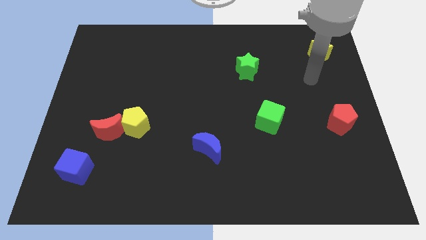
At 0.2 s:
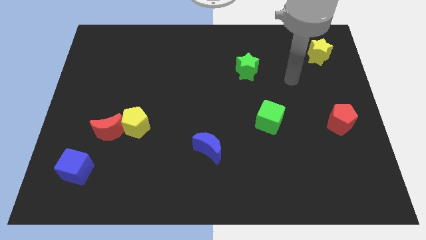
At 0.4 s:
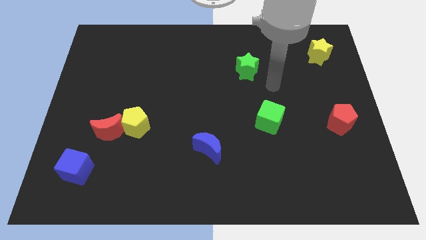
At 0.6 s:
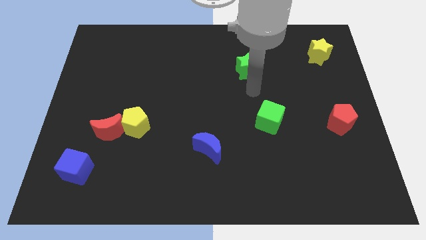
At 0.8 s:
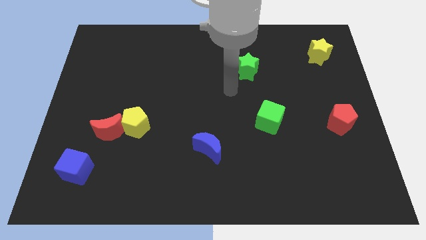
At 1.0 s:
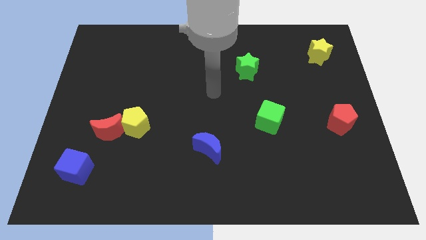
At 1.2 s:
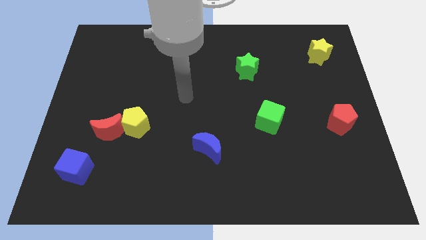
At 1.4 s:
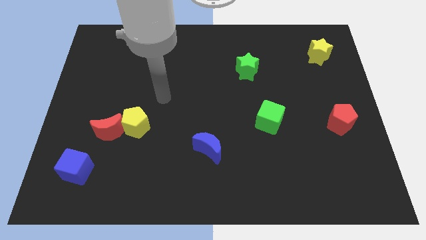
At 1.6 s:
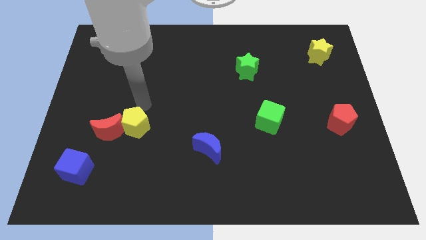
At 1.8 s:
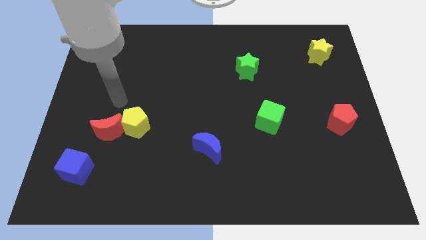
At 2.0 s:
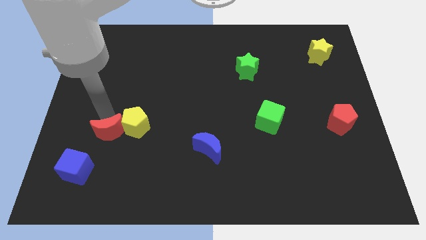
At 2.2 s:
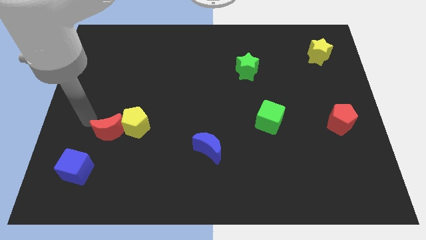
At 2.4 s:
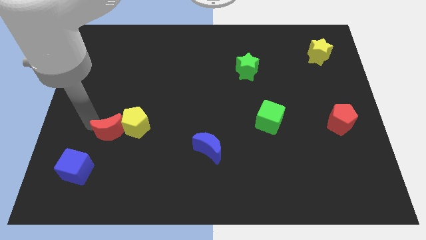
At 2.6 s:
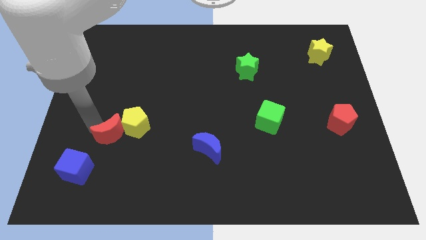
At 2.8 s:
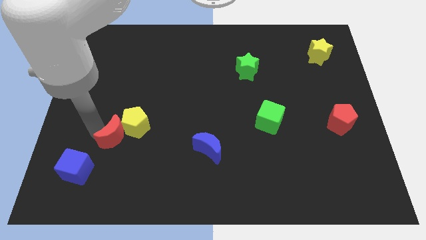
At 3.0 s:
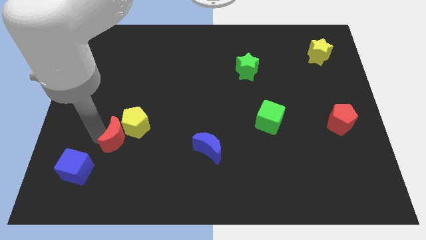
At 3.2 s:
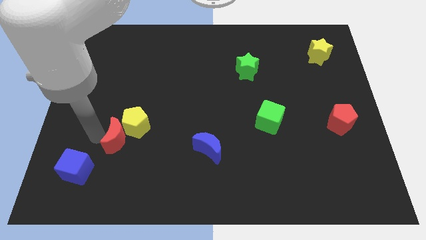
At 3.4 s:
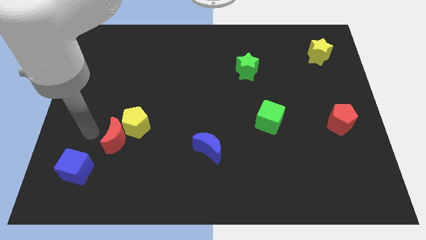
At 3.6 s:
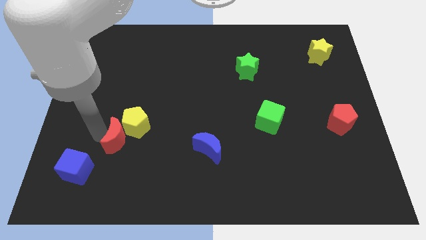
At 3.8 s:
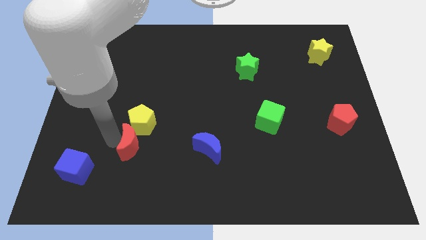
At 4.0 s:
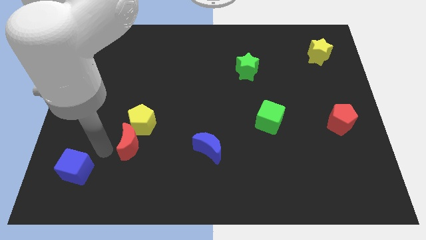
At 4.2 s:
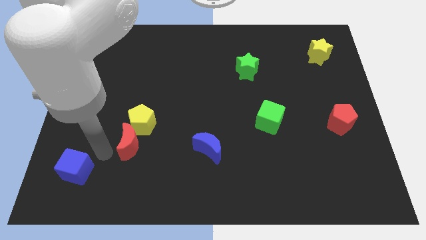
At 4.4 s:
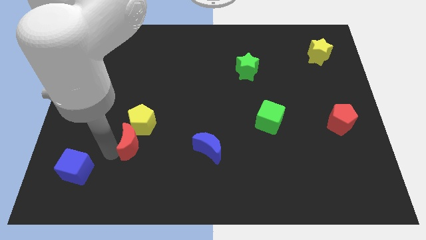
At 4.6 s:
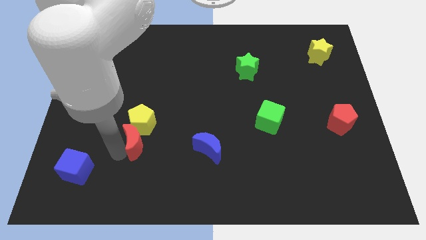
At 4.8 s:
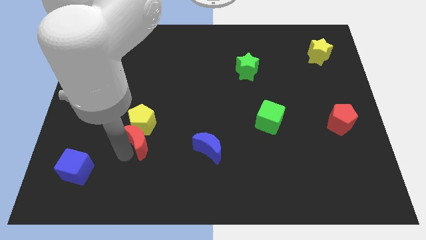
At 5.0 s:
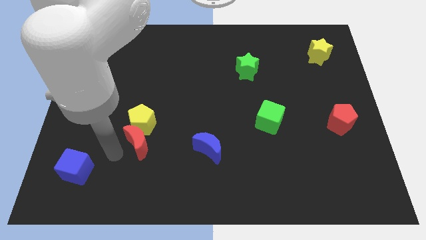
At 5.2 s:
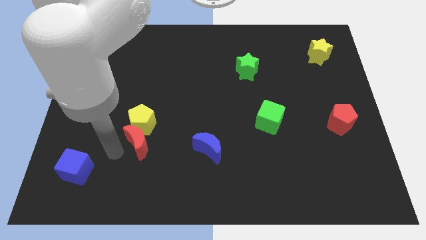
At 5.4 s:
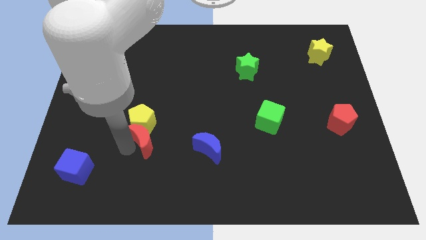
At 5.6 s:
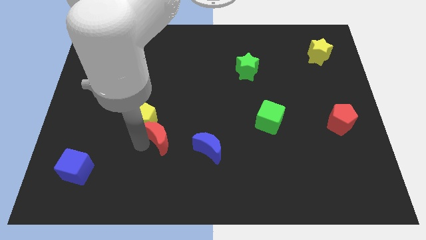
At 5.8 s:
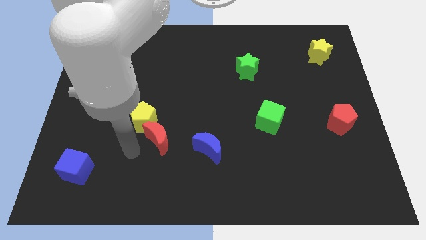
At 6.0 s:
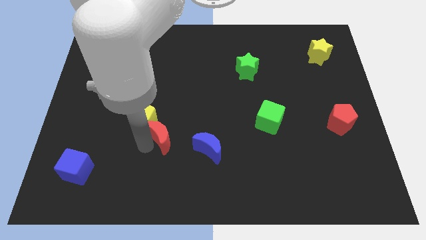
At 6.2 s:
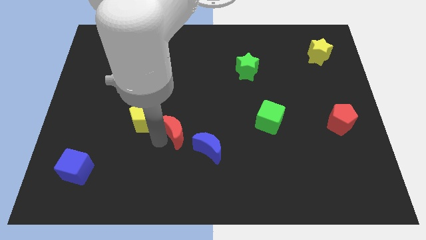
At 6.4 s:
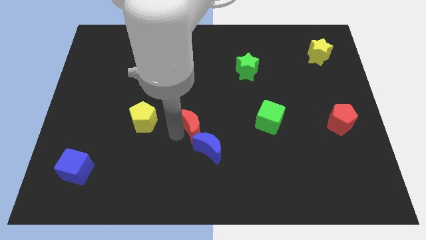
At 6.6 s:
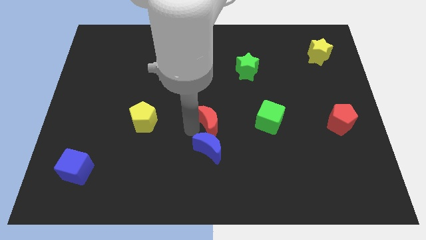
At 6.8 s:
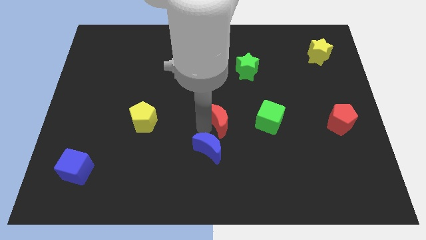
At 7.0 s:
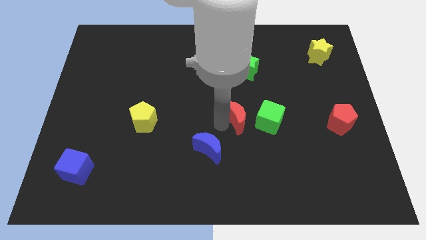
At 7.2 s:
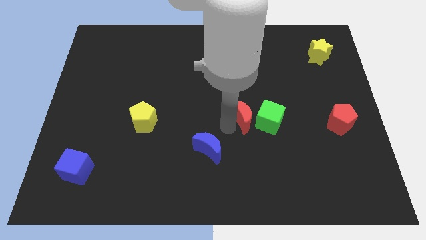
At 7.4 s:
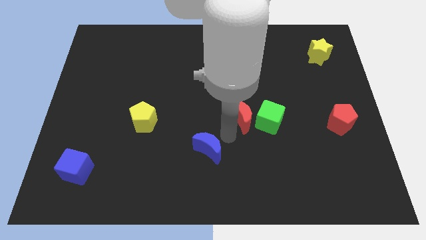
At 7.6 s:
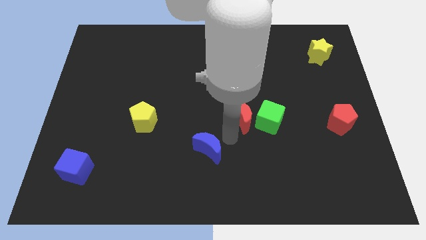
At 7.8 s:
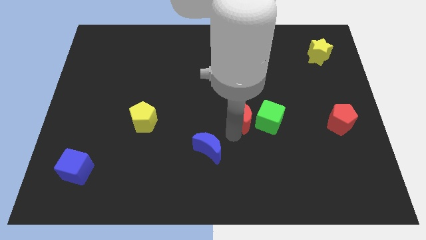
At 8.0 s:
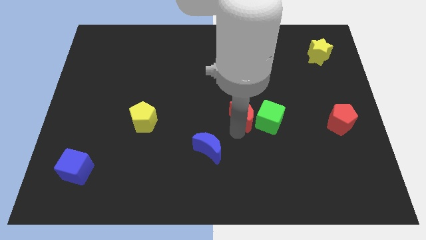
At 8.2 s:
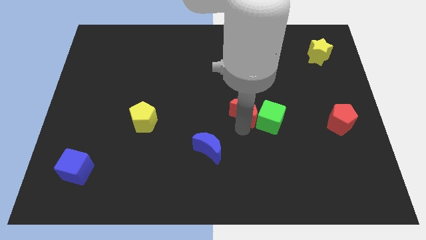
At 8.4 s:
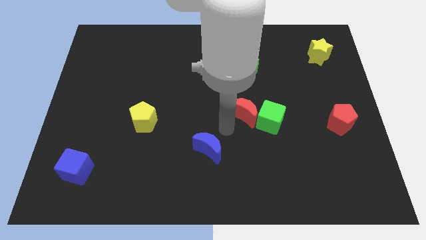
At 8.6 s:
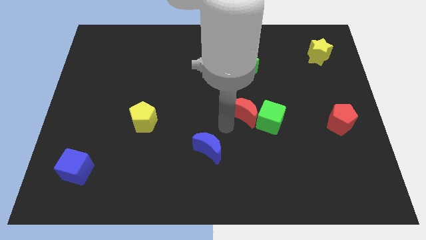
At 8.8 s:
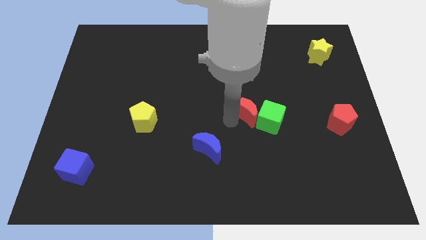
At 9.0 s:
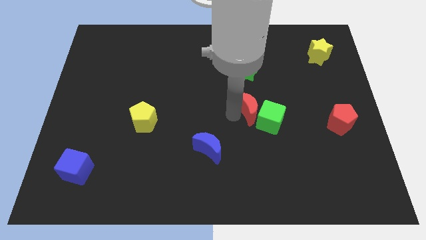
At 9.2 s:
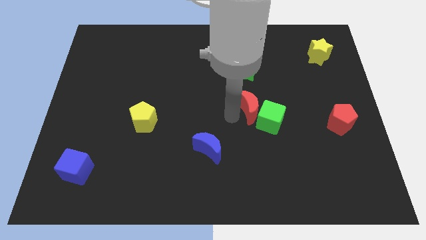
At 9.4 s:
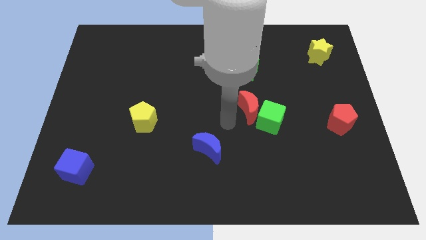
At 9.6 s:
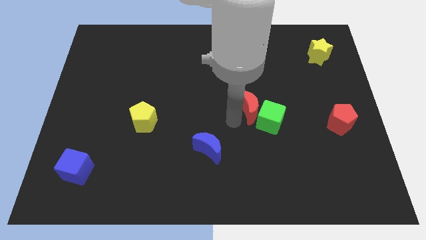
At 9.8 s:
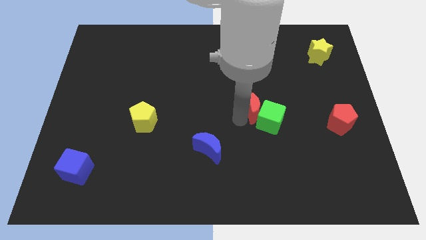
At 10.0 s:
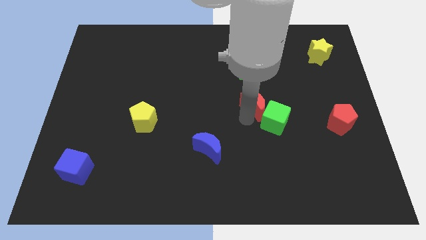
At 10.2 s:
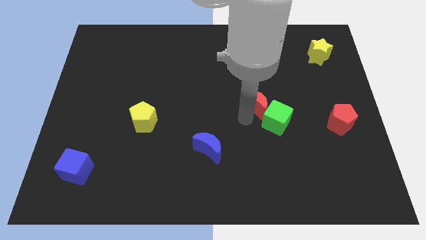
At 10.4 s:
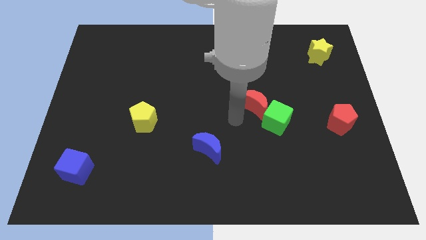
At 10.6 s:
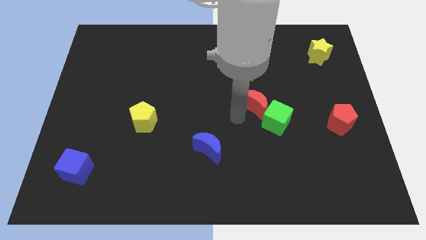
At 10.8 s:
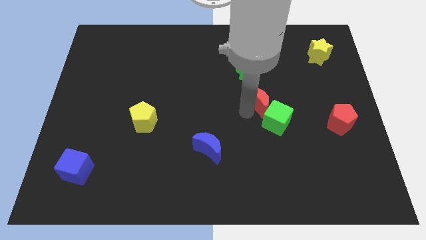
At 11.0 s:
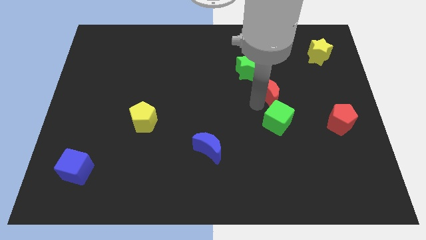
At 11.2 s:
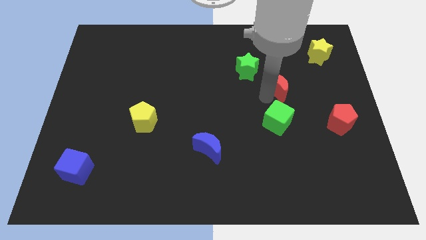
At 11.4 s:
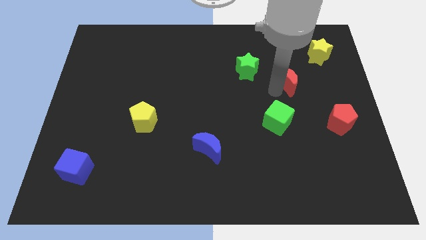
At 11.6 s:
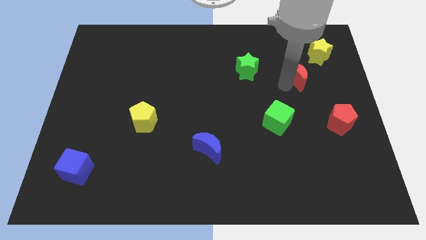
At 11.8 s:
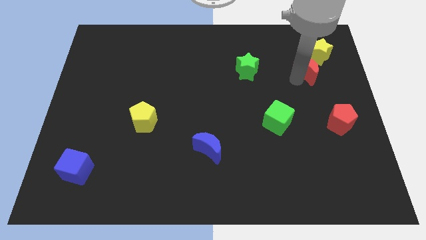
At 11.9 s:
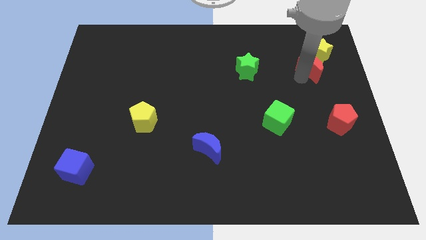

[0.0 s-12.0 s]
push the red moon next to the yellow star

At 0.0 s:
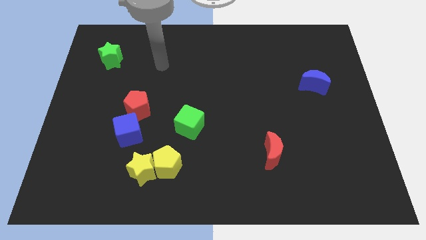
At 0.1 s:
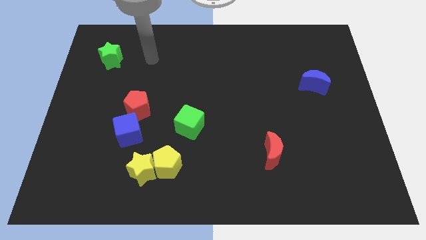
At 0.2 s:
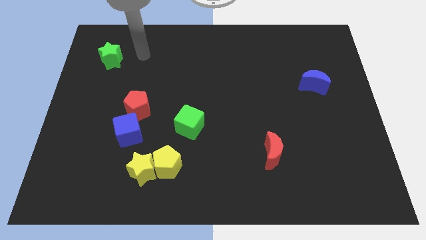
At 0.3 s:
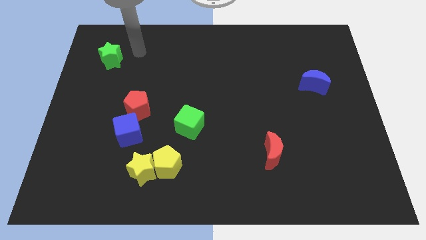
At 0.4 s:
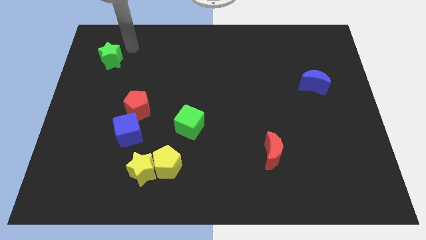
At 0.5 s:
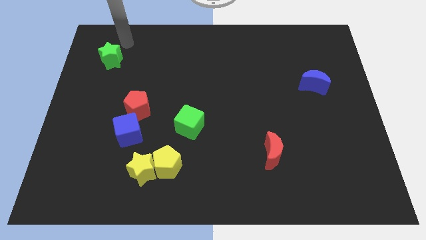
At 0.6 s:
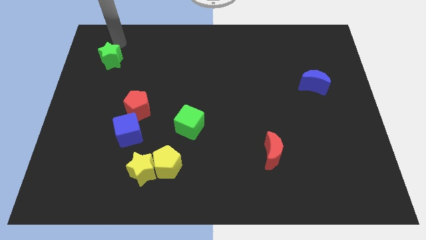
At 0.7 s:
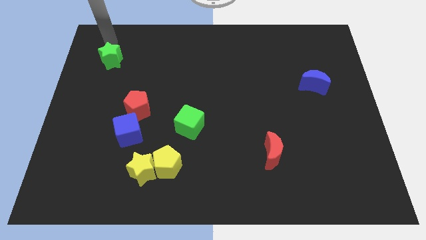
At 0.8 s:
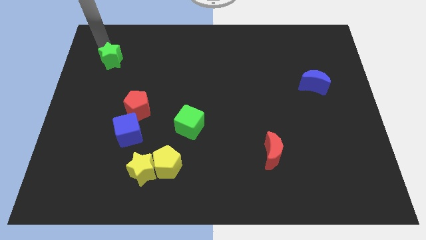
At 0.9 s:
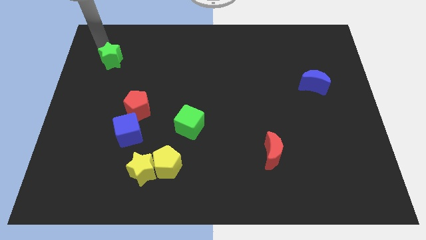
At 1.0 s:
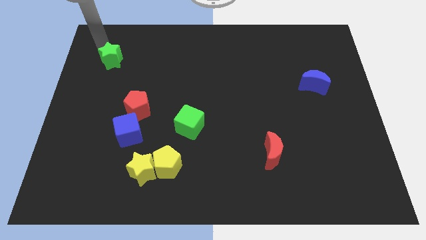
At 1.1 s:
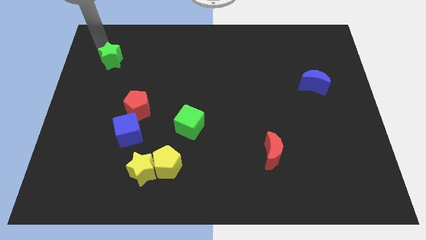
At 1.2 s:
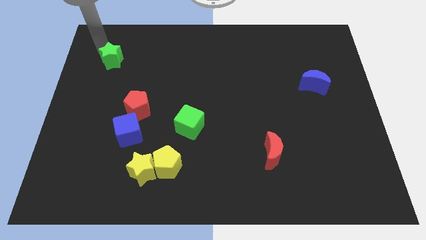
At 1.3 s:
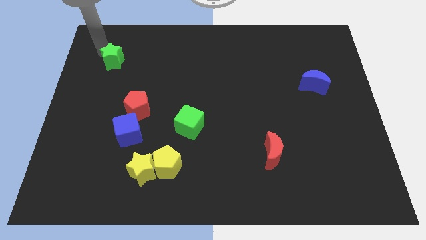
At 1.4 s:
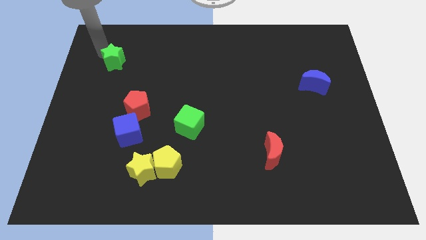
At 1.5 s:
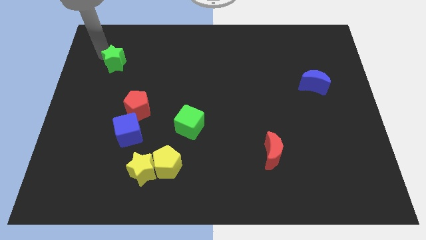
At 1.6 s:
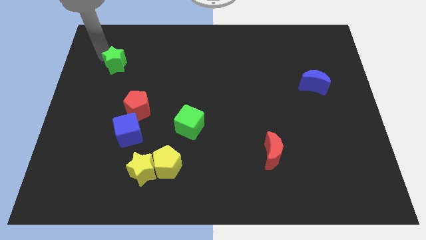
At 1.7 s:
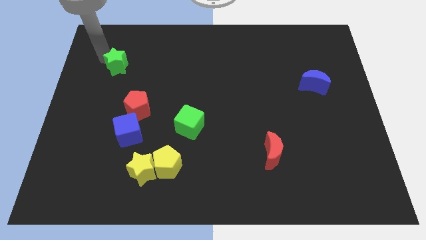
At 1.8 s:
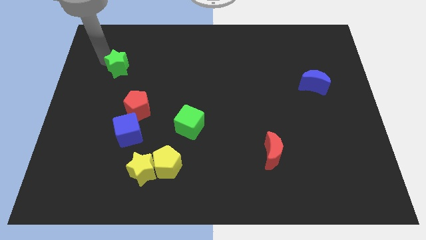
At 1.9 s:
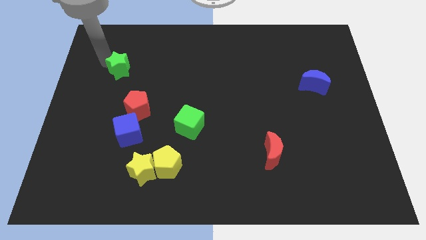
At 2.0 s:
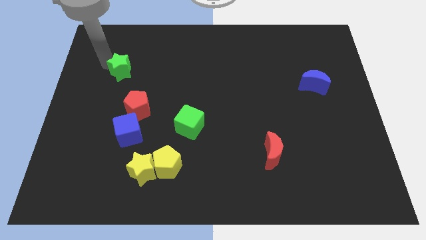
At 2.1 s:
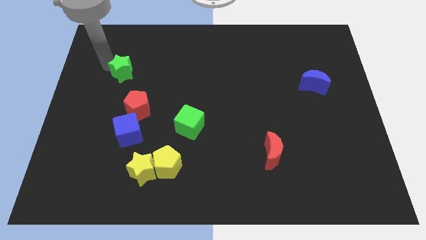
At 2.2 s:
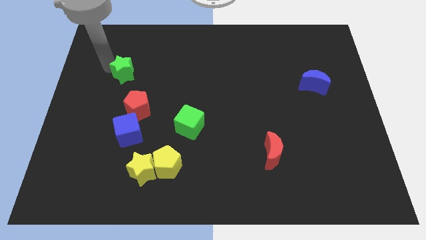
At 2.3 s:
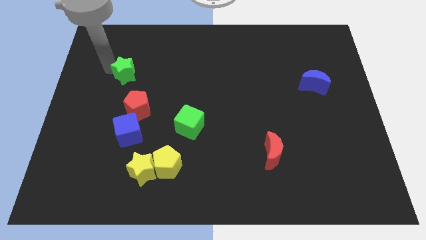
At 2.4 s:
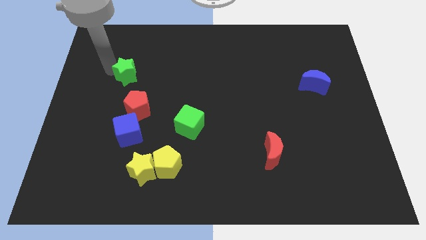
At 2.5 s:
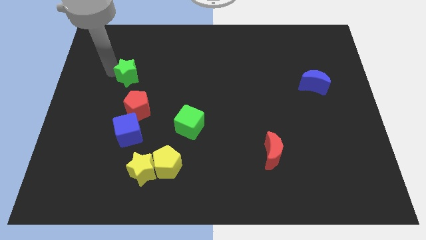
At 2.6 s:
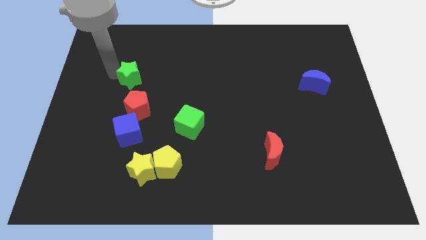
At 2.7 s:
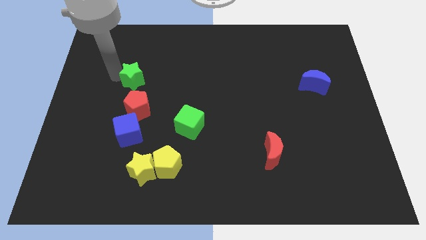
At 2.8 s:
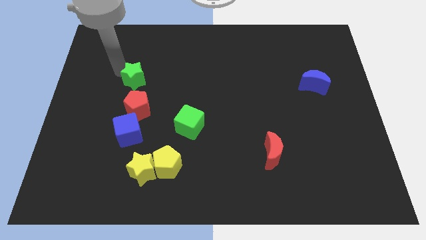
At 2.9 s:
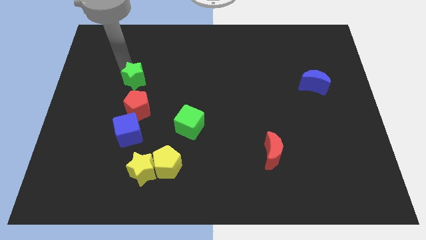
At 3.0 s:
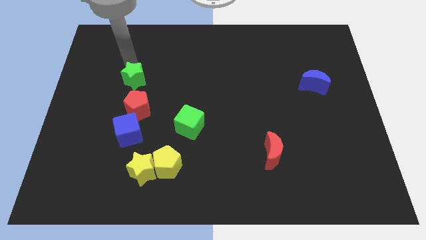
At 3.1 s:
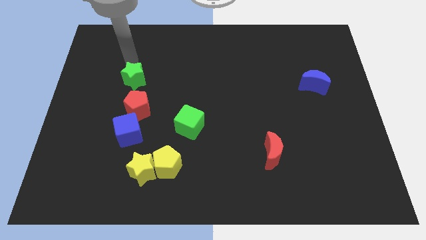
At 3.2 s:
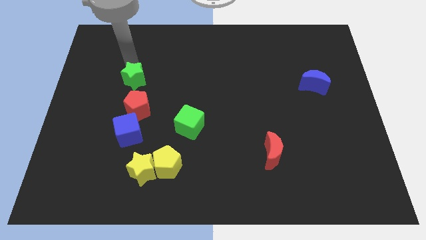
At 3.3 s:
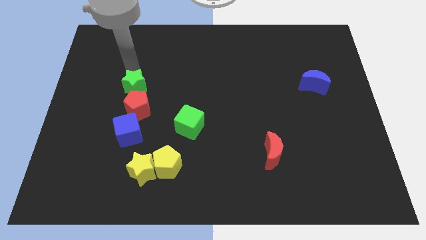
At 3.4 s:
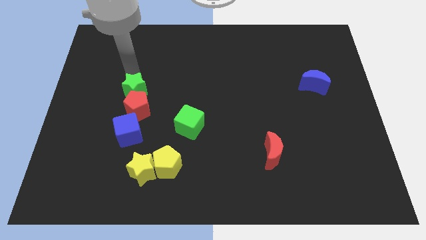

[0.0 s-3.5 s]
put the green star towards the red pentagon
